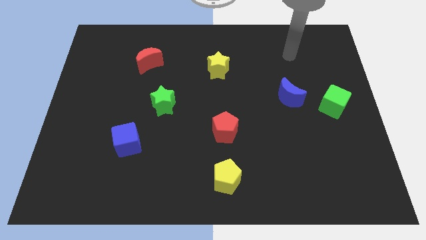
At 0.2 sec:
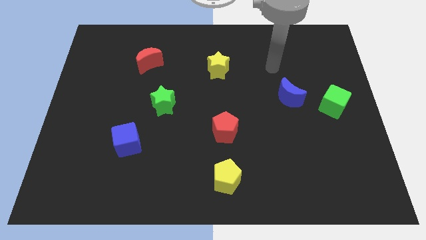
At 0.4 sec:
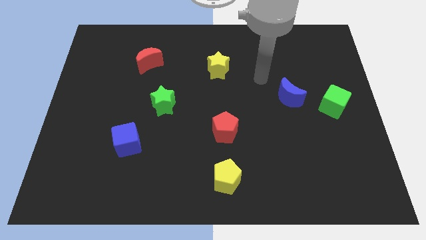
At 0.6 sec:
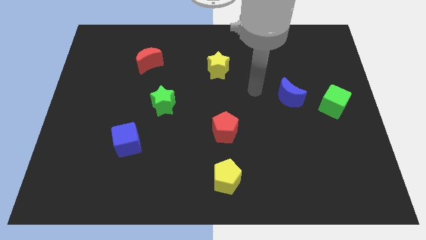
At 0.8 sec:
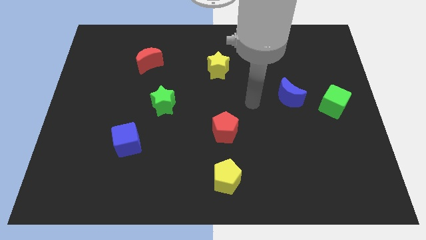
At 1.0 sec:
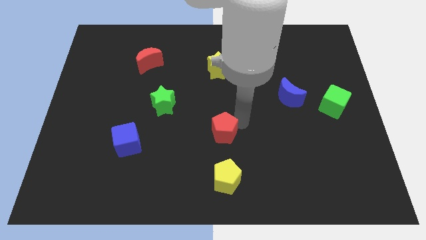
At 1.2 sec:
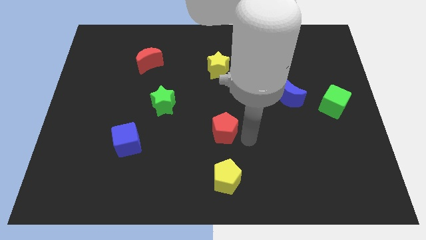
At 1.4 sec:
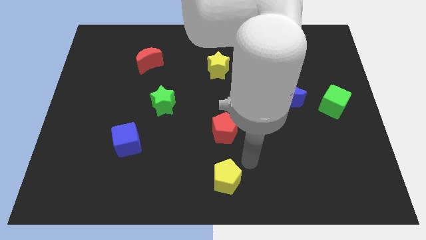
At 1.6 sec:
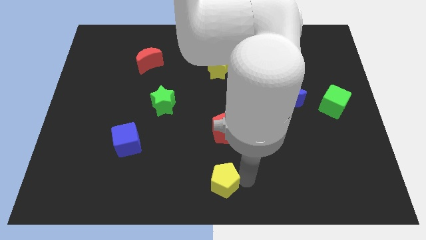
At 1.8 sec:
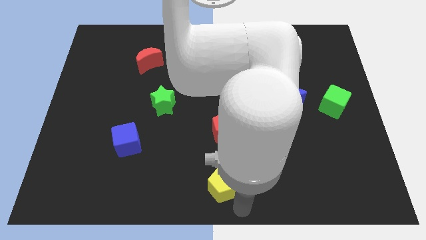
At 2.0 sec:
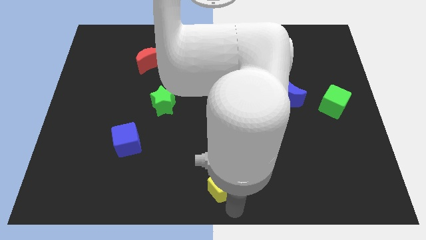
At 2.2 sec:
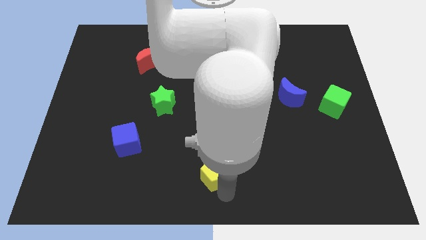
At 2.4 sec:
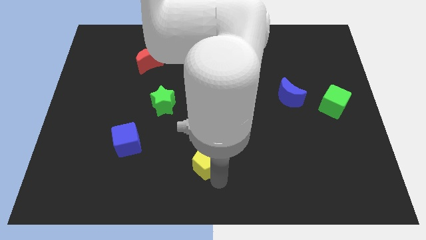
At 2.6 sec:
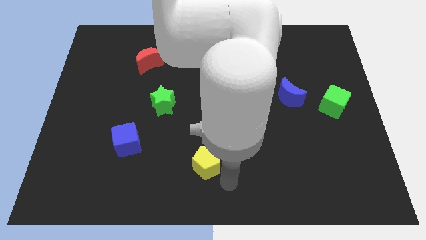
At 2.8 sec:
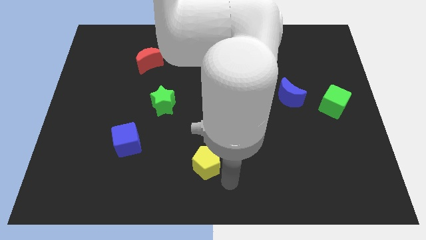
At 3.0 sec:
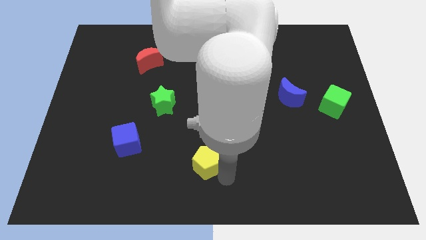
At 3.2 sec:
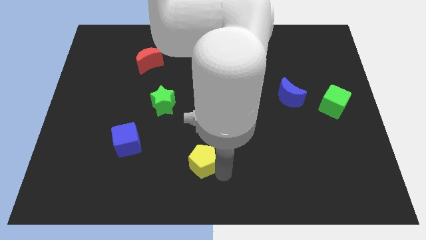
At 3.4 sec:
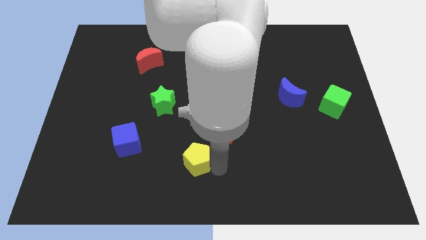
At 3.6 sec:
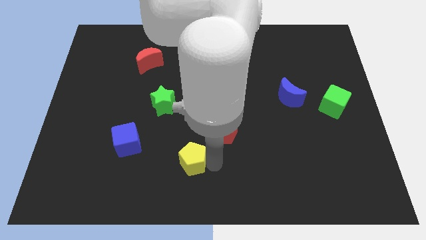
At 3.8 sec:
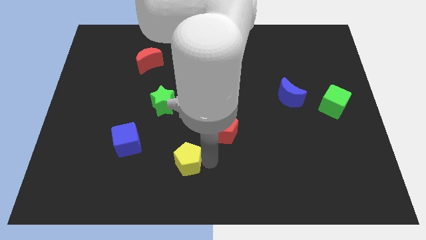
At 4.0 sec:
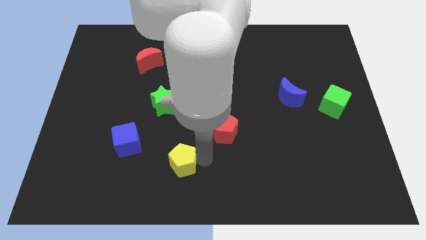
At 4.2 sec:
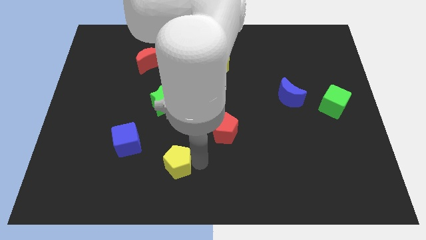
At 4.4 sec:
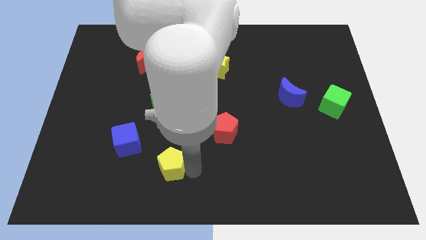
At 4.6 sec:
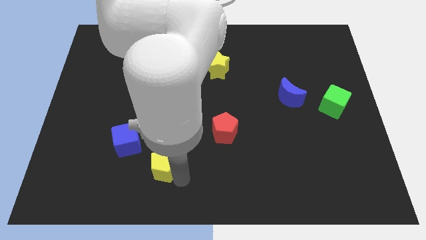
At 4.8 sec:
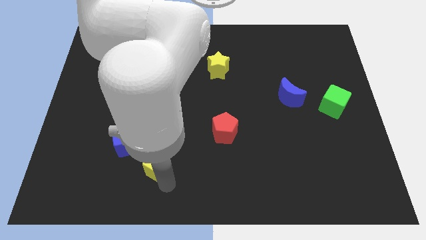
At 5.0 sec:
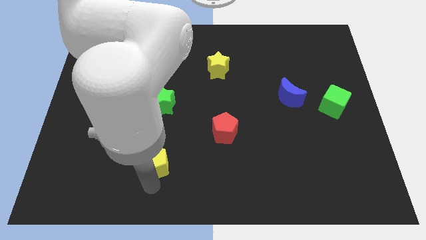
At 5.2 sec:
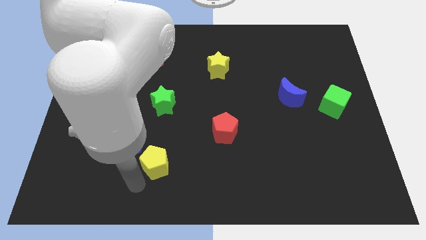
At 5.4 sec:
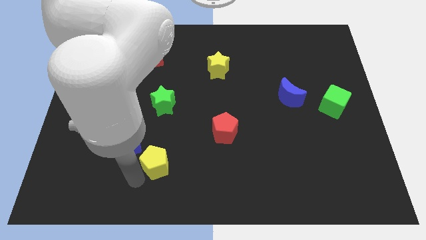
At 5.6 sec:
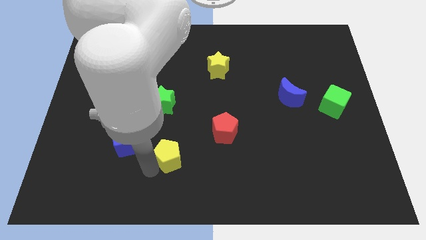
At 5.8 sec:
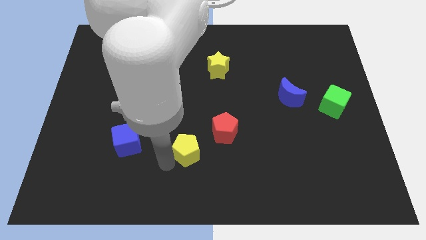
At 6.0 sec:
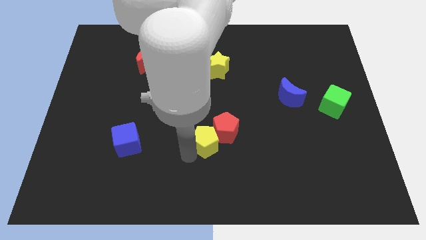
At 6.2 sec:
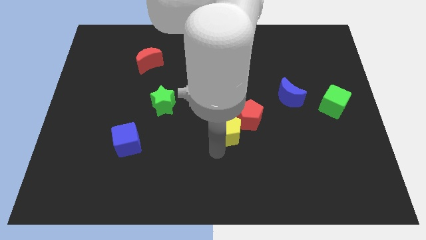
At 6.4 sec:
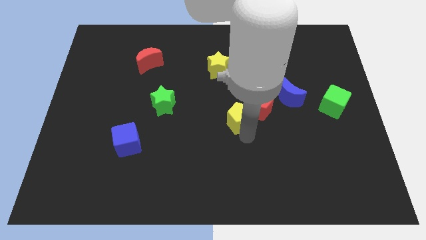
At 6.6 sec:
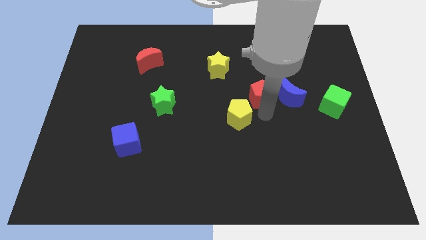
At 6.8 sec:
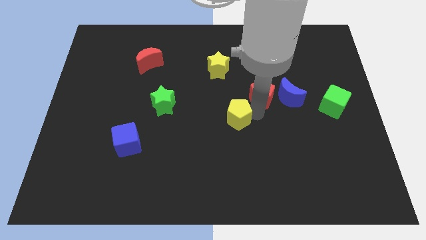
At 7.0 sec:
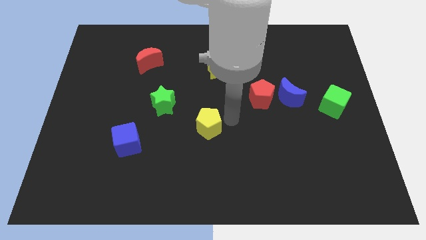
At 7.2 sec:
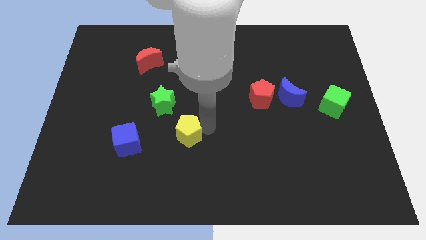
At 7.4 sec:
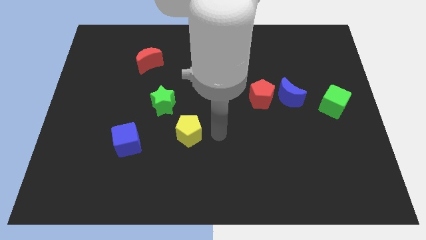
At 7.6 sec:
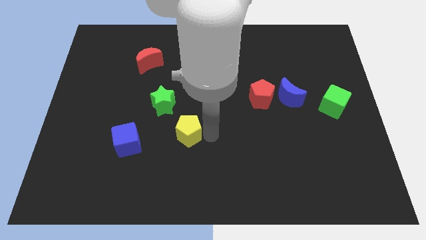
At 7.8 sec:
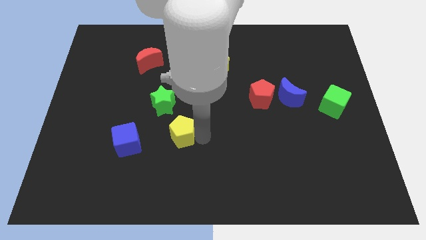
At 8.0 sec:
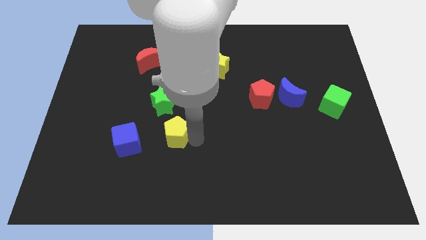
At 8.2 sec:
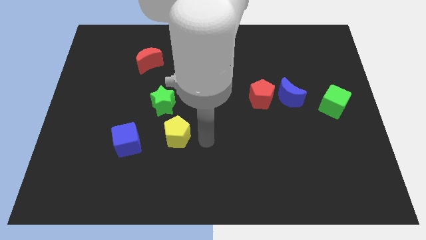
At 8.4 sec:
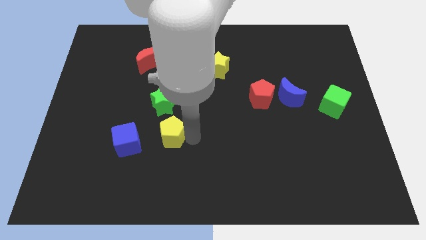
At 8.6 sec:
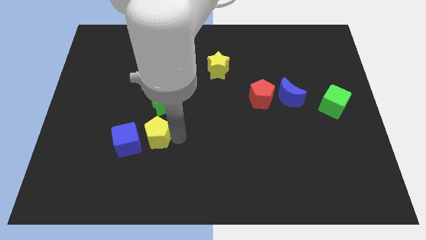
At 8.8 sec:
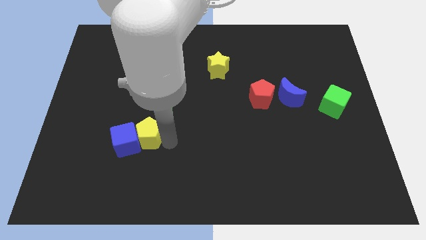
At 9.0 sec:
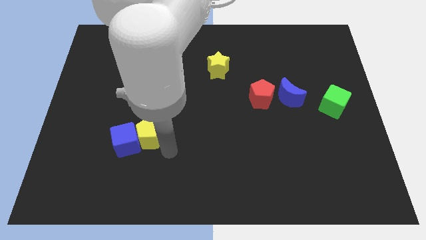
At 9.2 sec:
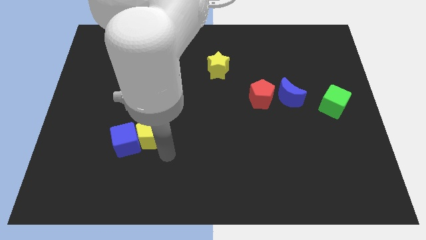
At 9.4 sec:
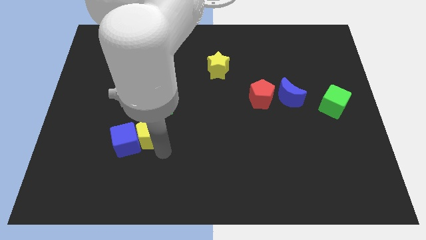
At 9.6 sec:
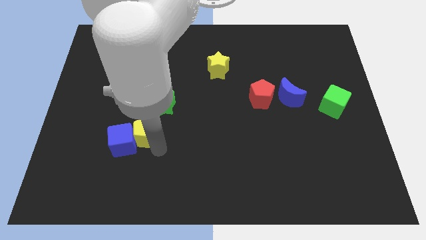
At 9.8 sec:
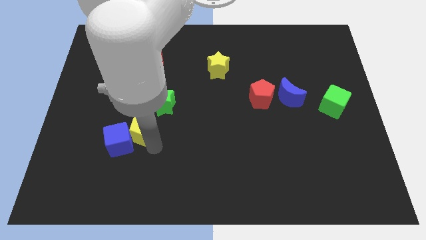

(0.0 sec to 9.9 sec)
slide the yellow pentagon upwards and left diagonally

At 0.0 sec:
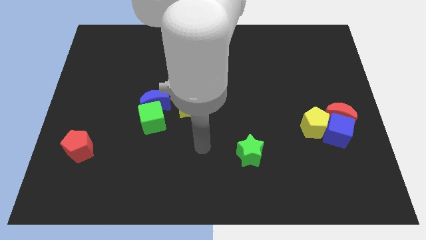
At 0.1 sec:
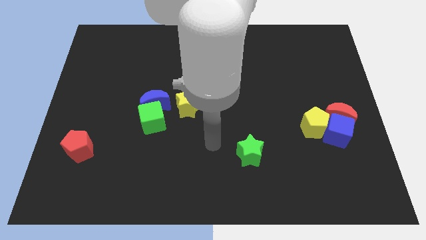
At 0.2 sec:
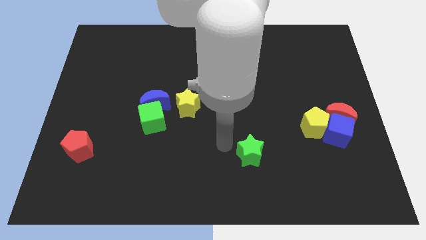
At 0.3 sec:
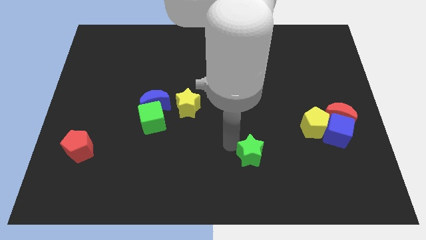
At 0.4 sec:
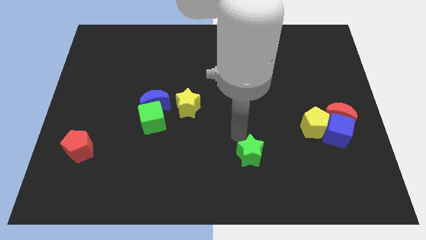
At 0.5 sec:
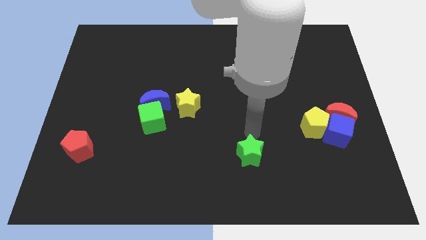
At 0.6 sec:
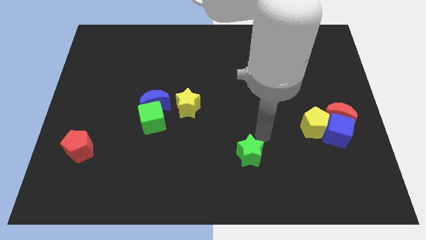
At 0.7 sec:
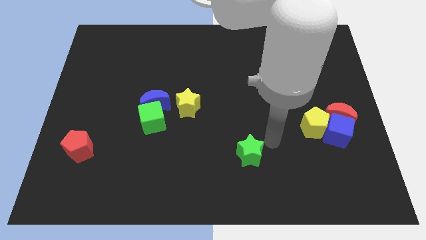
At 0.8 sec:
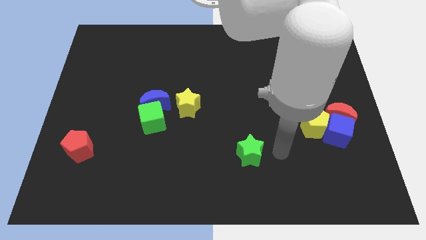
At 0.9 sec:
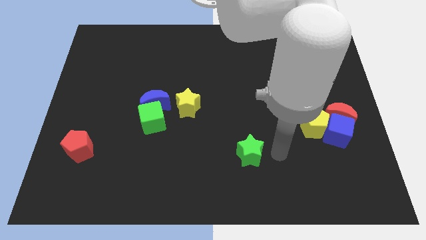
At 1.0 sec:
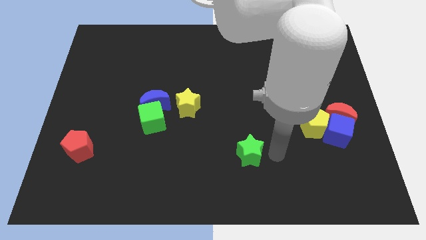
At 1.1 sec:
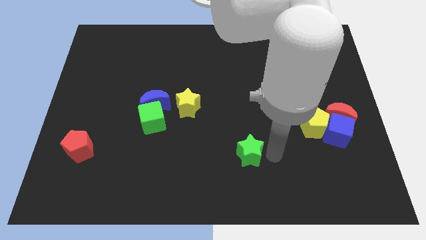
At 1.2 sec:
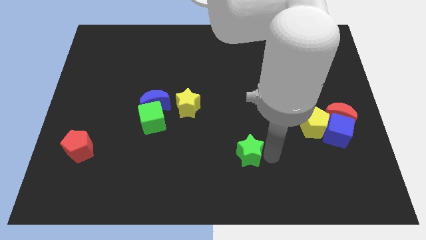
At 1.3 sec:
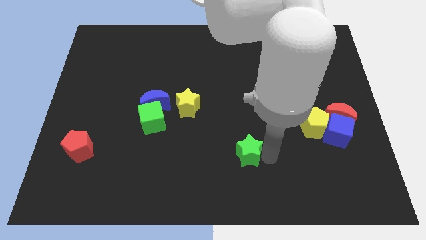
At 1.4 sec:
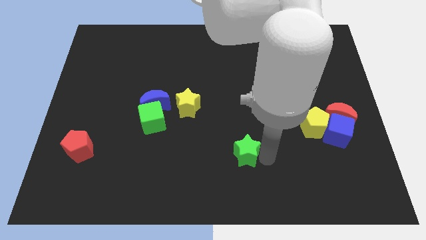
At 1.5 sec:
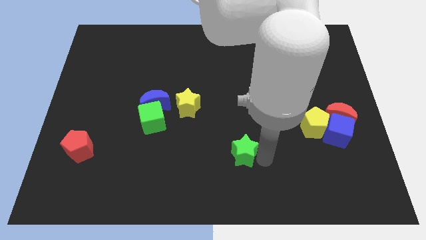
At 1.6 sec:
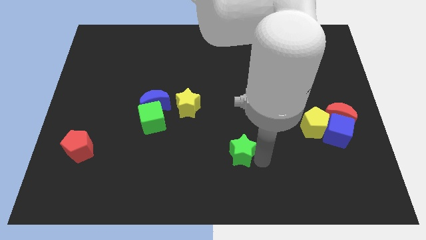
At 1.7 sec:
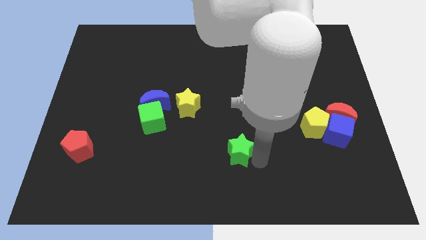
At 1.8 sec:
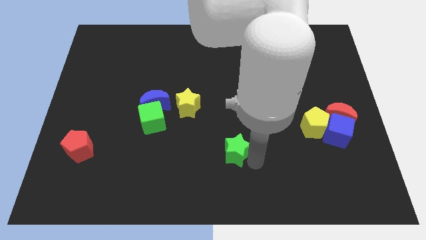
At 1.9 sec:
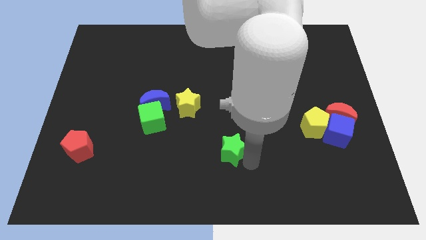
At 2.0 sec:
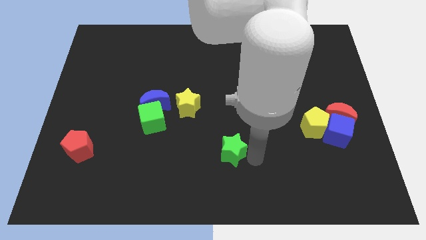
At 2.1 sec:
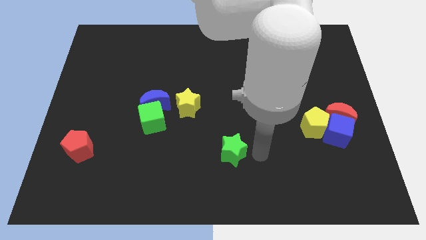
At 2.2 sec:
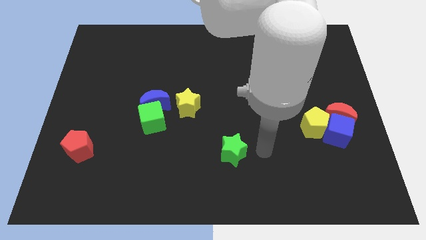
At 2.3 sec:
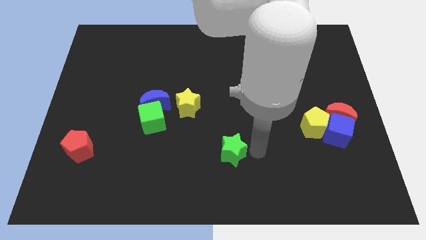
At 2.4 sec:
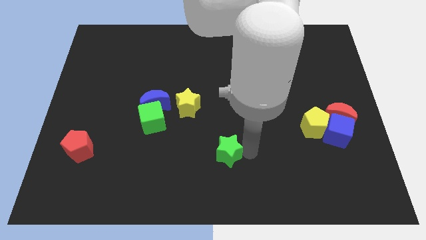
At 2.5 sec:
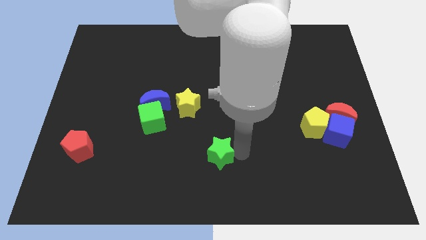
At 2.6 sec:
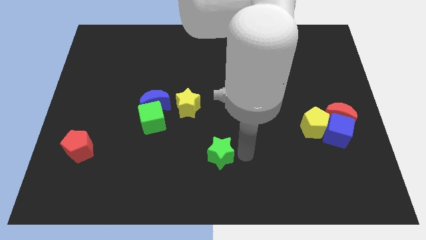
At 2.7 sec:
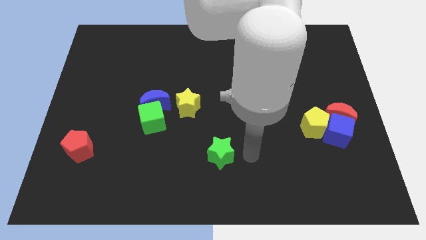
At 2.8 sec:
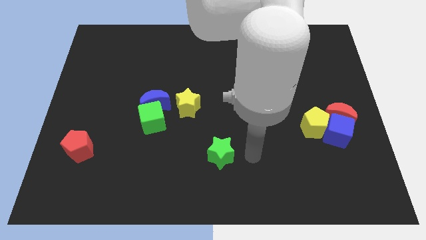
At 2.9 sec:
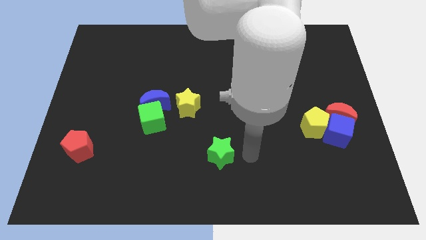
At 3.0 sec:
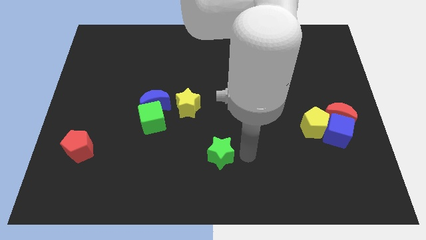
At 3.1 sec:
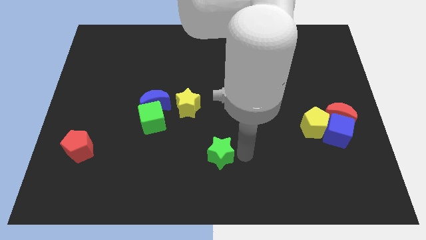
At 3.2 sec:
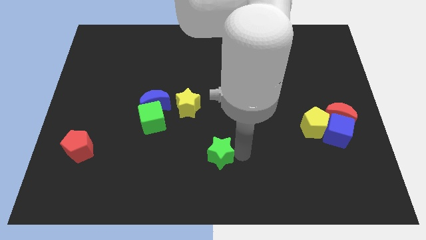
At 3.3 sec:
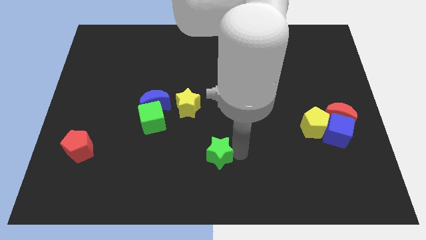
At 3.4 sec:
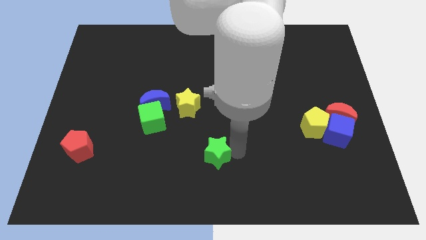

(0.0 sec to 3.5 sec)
slide the green star left a bit
